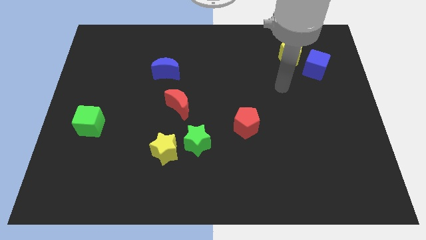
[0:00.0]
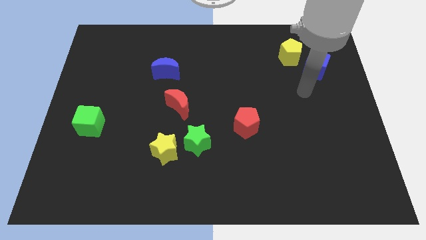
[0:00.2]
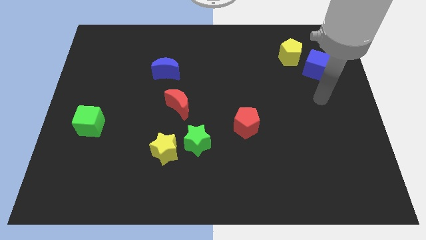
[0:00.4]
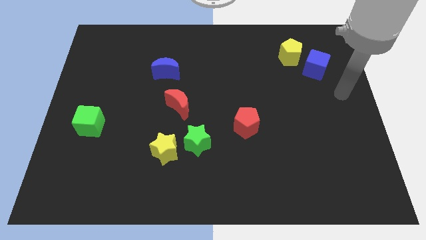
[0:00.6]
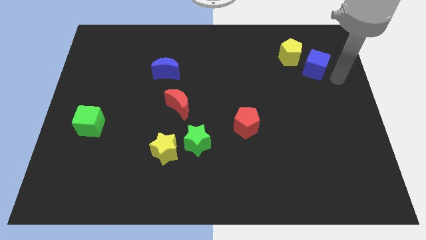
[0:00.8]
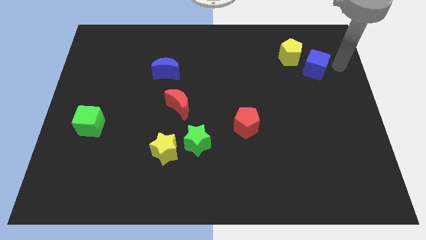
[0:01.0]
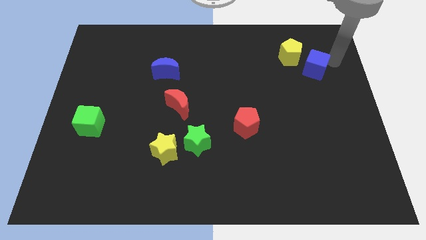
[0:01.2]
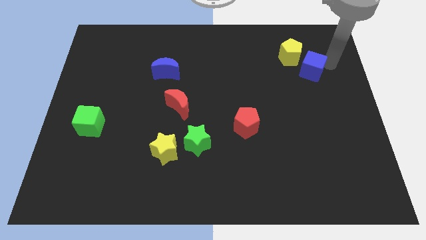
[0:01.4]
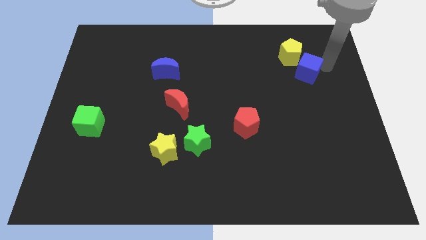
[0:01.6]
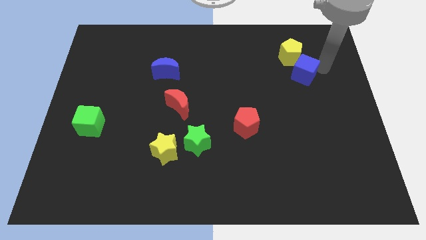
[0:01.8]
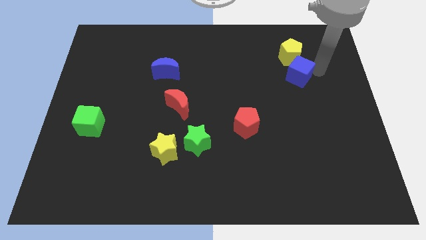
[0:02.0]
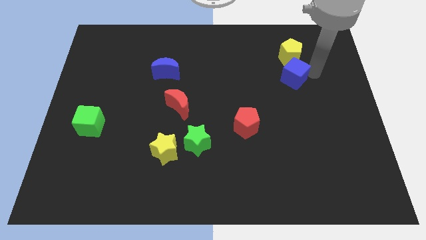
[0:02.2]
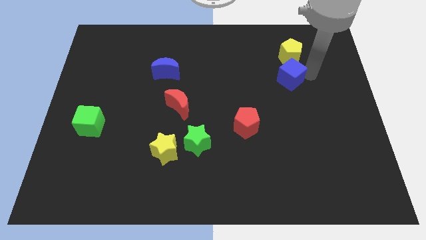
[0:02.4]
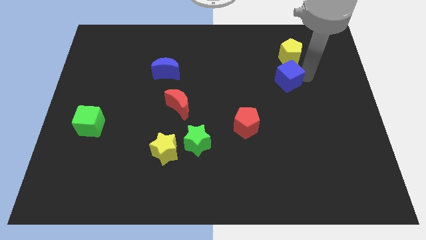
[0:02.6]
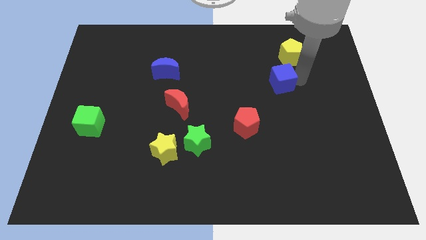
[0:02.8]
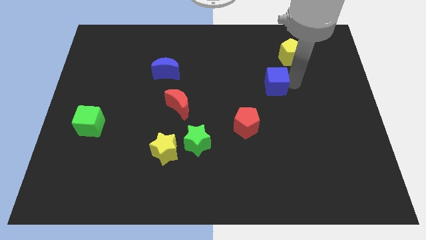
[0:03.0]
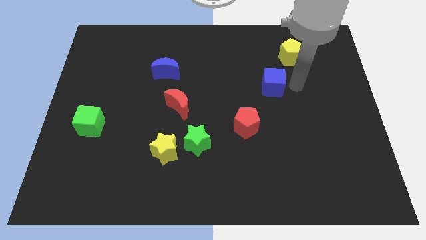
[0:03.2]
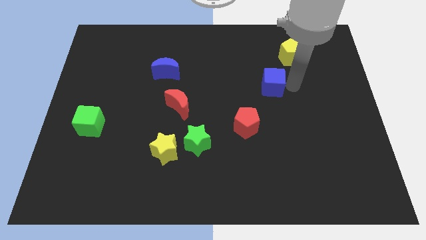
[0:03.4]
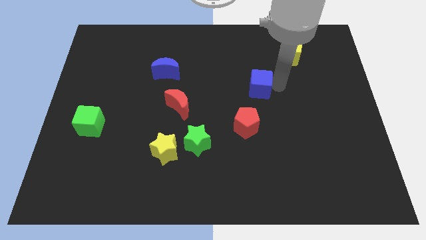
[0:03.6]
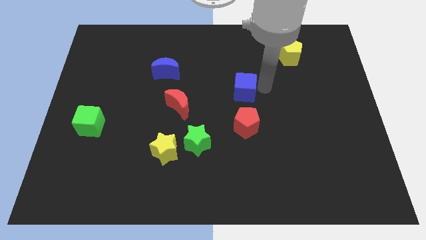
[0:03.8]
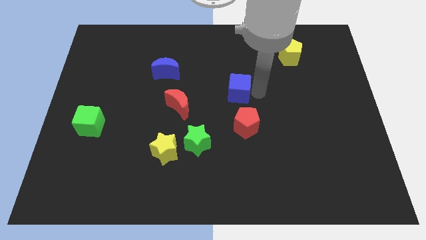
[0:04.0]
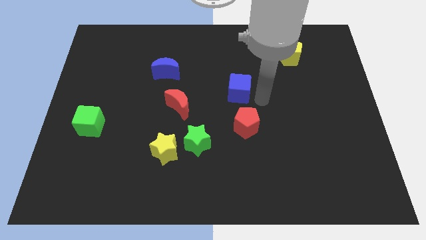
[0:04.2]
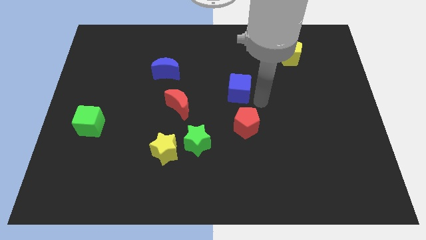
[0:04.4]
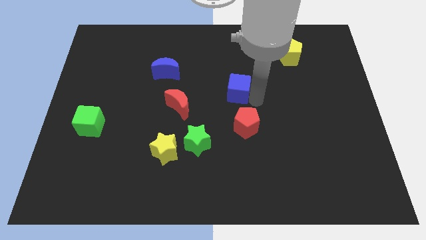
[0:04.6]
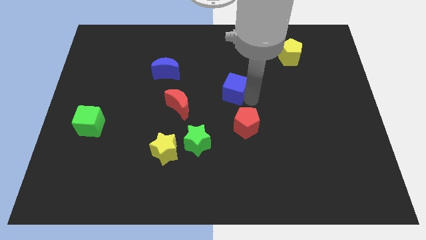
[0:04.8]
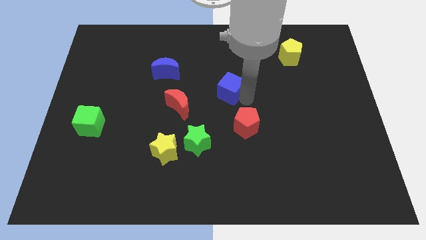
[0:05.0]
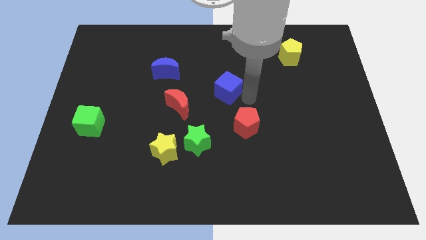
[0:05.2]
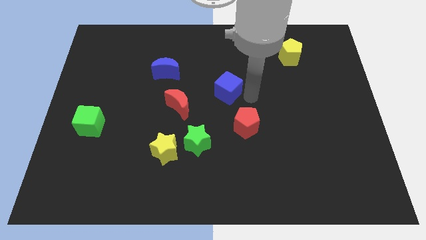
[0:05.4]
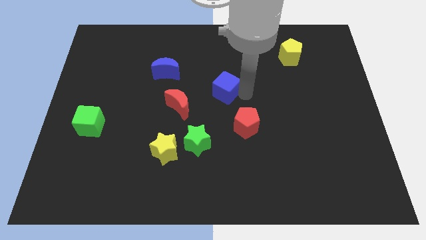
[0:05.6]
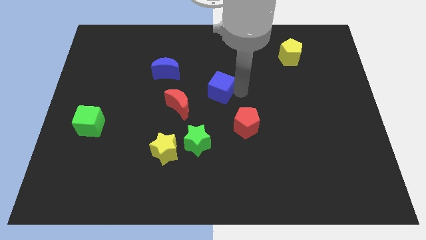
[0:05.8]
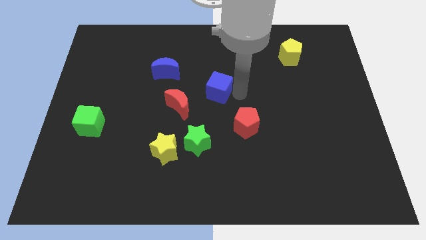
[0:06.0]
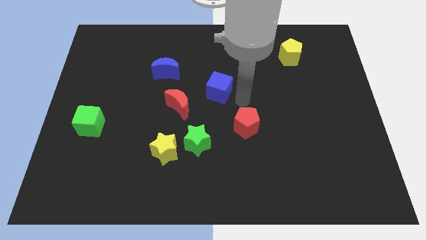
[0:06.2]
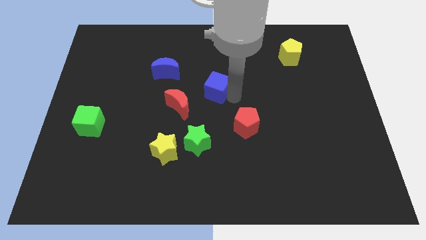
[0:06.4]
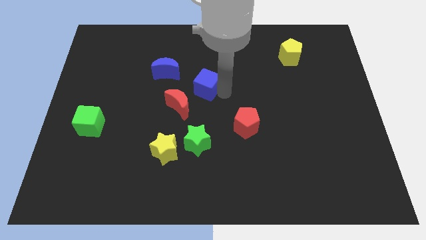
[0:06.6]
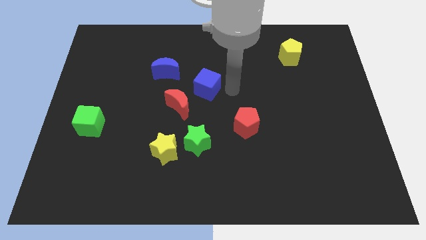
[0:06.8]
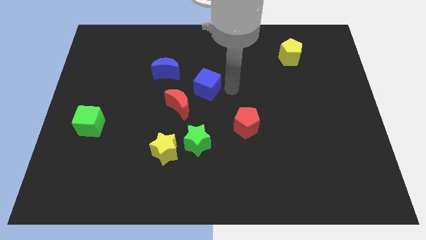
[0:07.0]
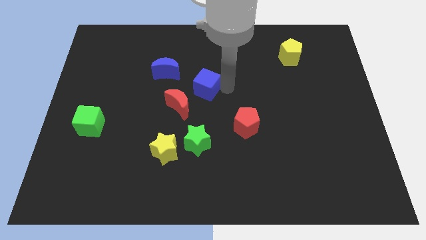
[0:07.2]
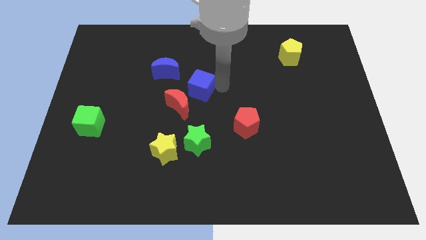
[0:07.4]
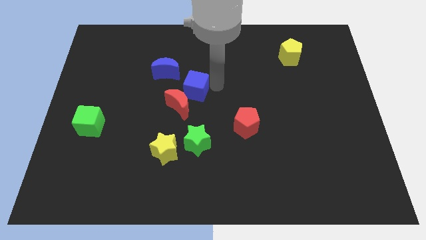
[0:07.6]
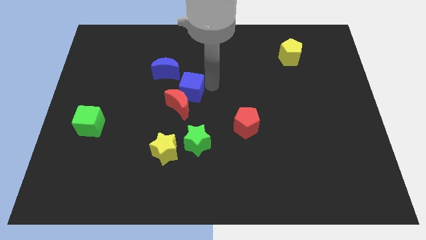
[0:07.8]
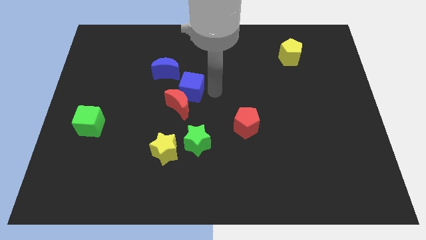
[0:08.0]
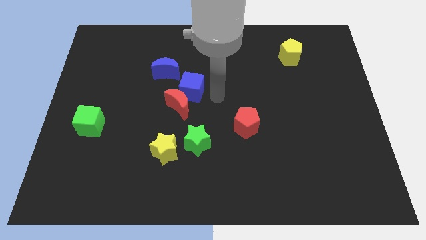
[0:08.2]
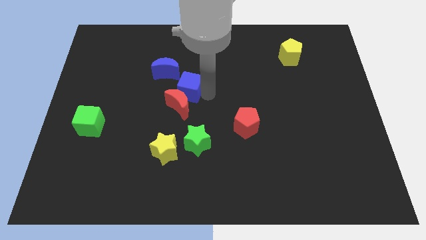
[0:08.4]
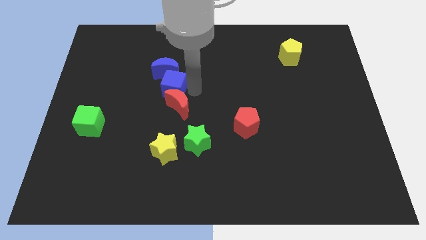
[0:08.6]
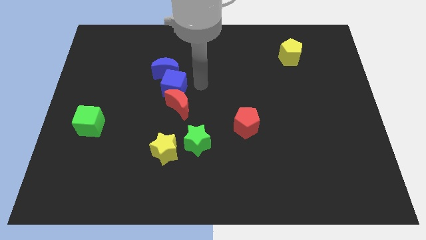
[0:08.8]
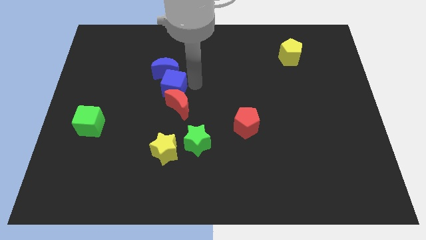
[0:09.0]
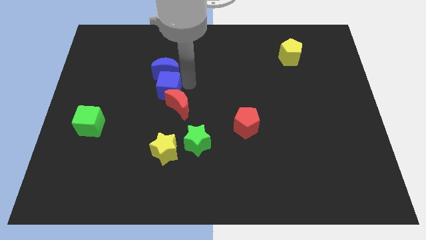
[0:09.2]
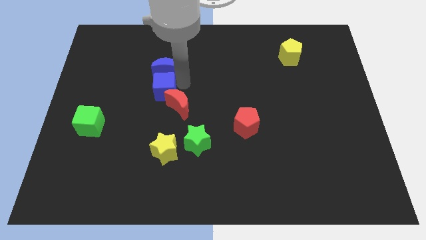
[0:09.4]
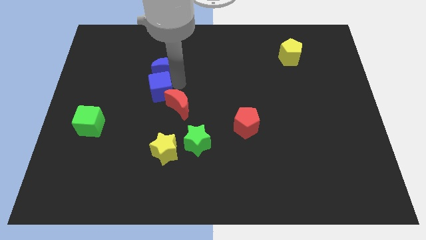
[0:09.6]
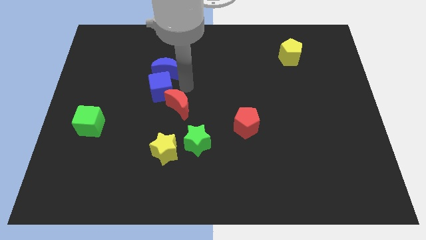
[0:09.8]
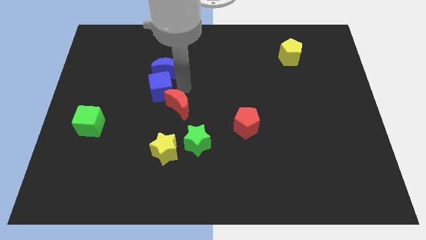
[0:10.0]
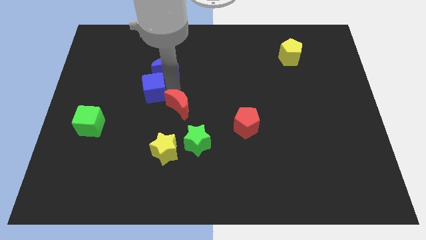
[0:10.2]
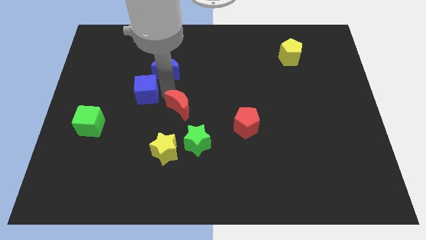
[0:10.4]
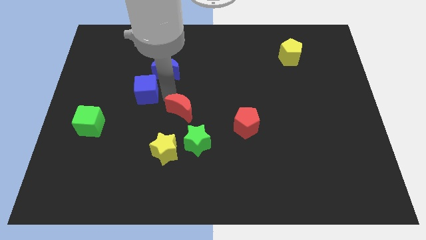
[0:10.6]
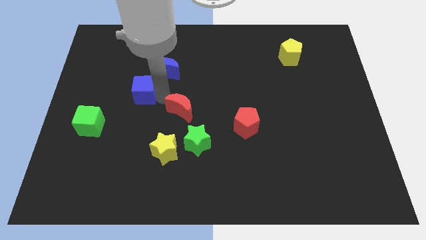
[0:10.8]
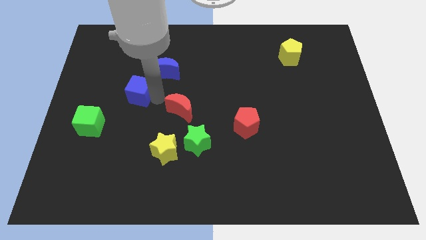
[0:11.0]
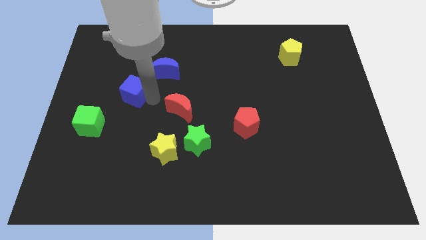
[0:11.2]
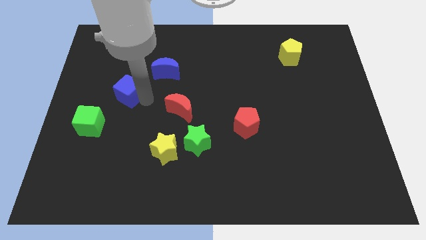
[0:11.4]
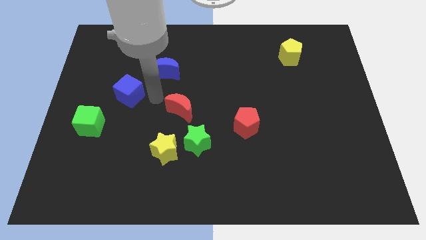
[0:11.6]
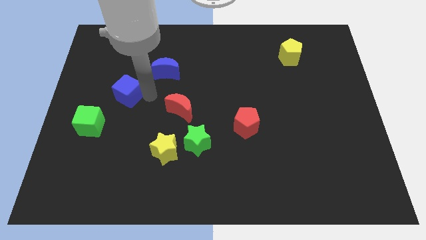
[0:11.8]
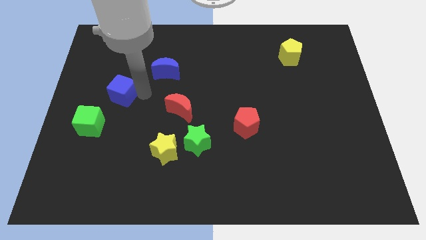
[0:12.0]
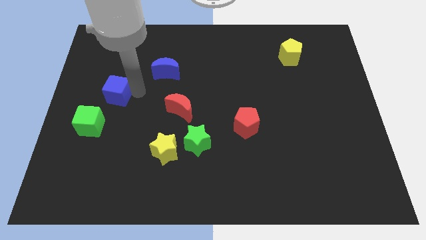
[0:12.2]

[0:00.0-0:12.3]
move the blue cube above the green cube

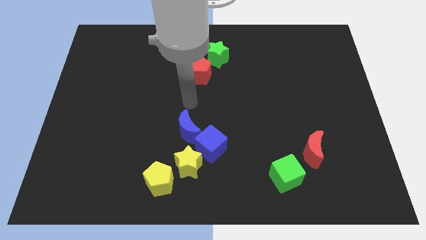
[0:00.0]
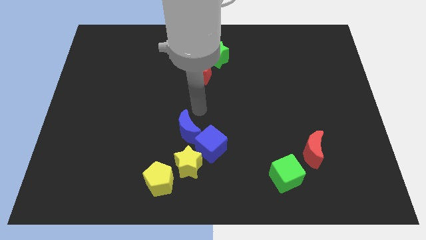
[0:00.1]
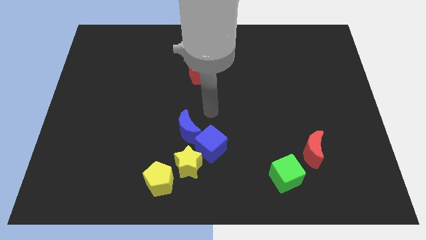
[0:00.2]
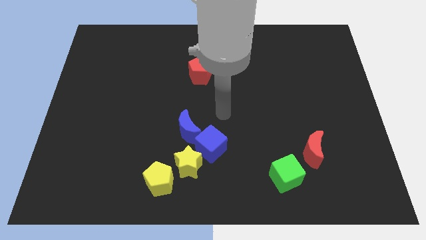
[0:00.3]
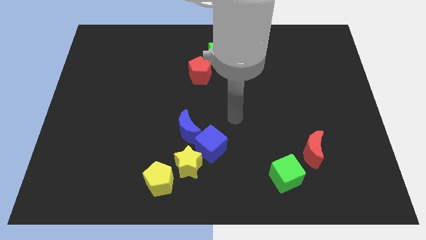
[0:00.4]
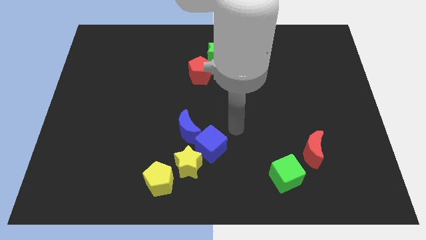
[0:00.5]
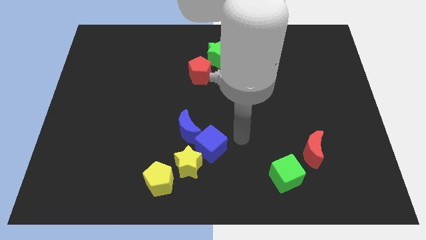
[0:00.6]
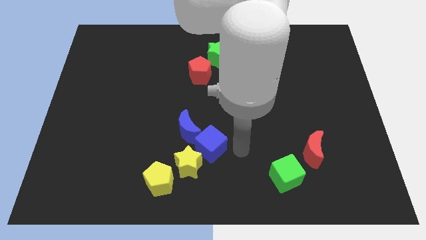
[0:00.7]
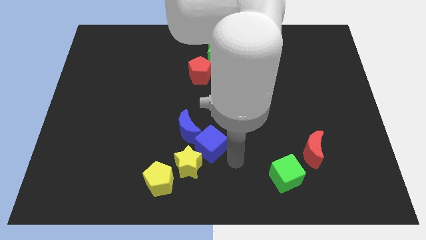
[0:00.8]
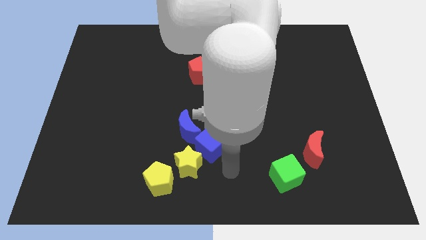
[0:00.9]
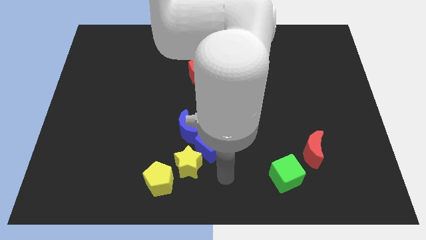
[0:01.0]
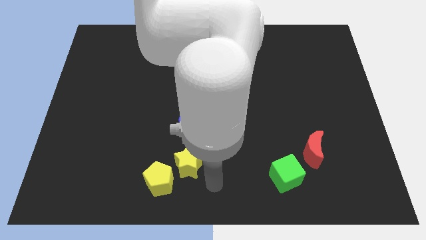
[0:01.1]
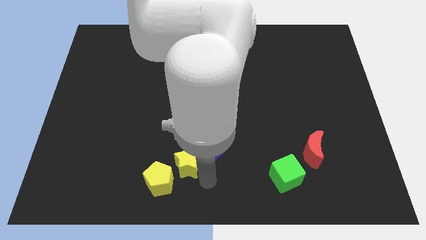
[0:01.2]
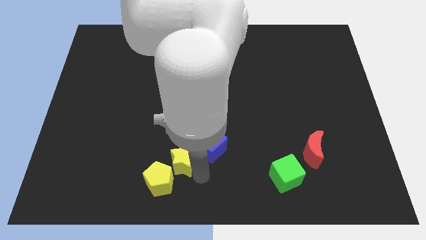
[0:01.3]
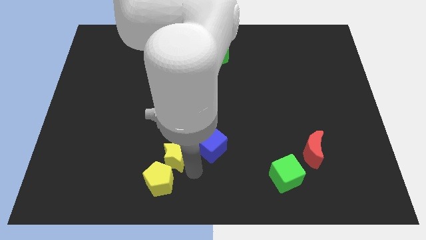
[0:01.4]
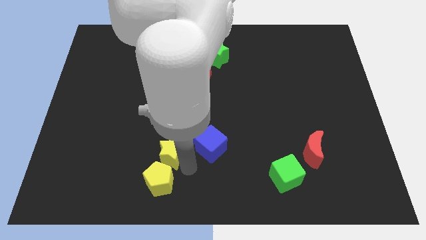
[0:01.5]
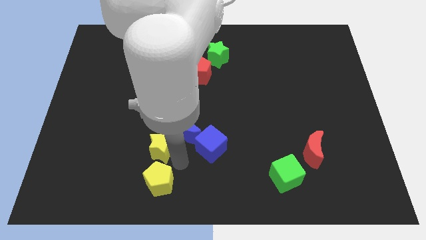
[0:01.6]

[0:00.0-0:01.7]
slide the yellow star left of the blue moon

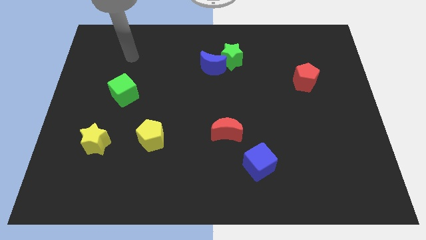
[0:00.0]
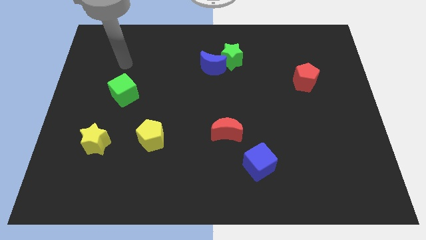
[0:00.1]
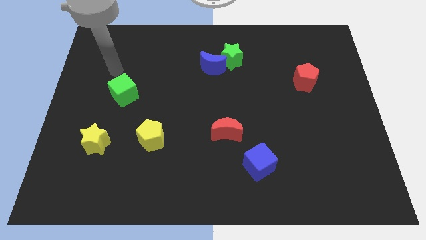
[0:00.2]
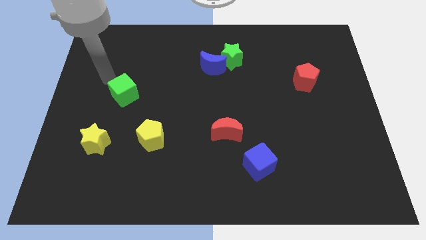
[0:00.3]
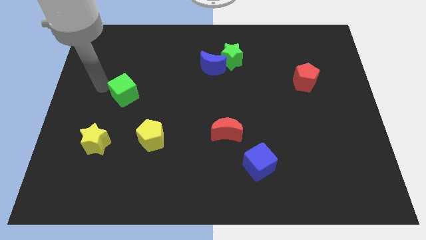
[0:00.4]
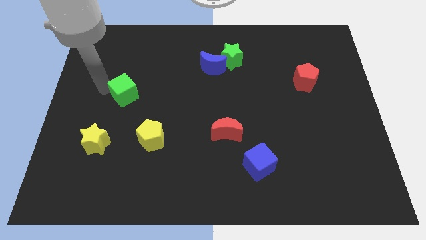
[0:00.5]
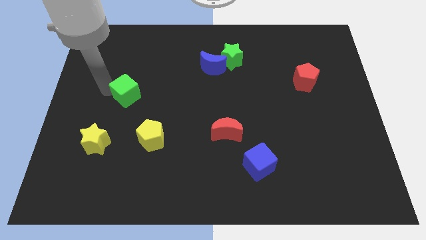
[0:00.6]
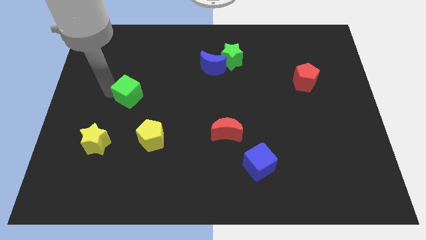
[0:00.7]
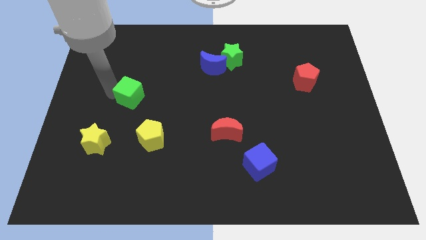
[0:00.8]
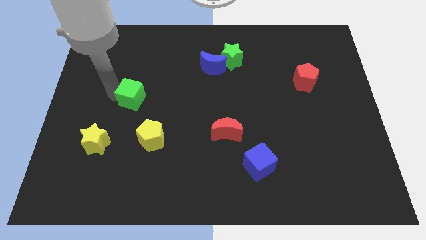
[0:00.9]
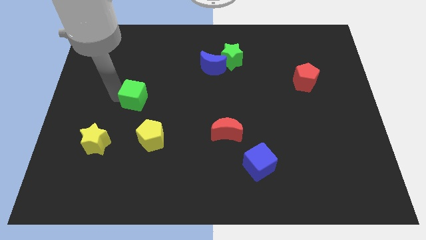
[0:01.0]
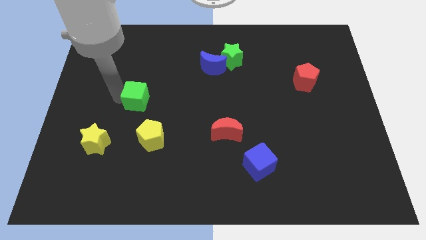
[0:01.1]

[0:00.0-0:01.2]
put the green cube above the yellow pentagon
